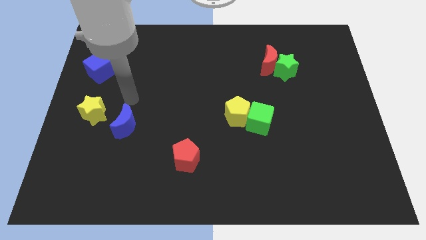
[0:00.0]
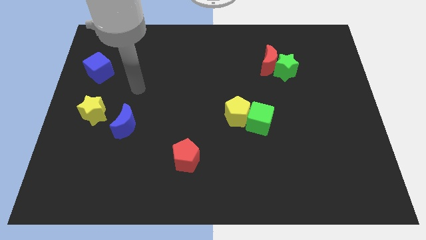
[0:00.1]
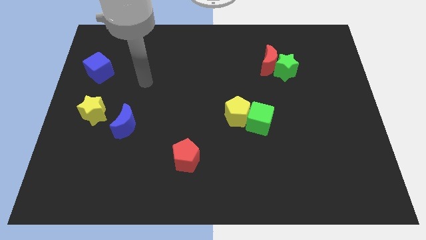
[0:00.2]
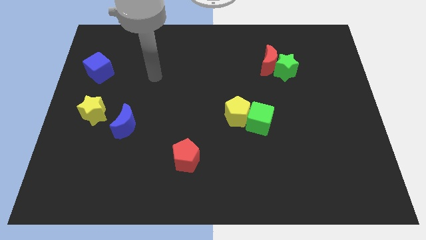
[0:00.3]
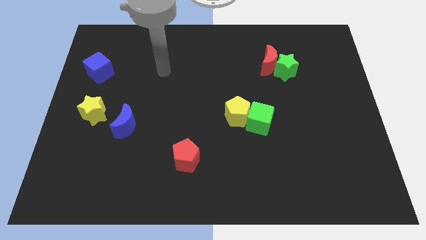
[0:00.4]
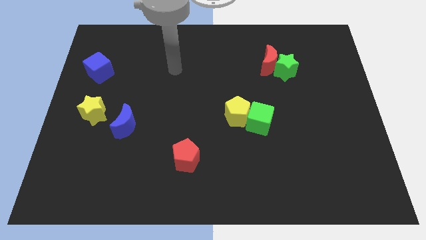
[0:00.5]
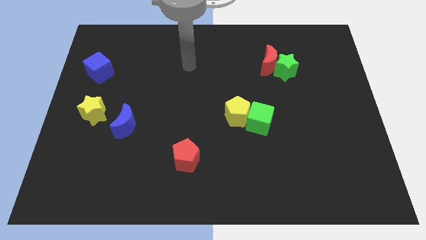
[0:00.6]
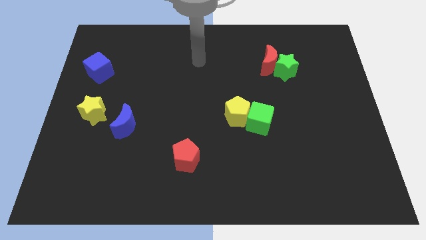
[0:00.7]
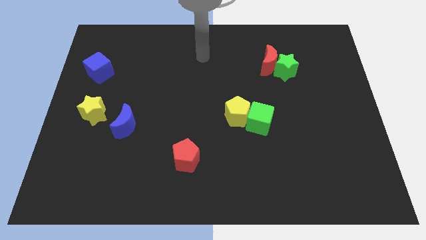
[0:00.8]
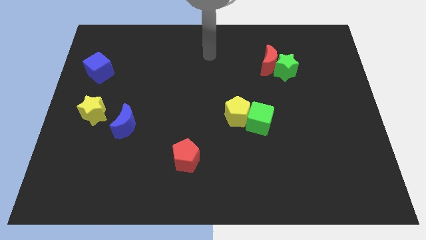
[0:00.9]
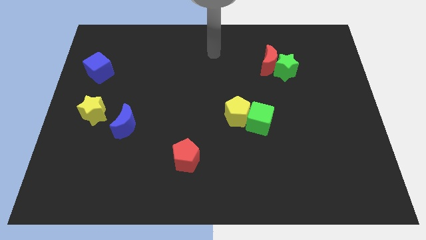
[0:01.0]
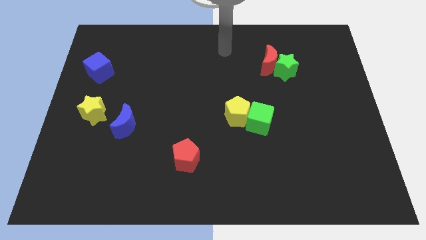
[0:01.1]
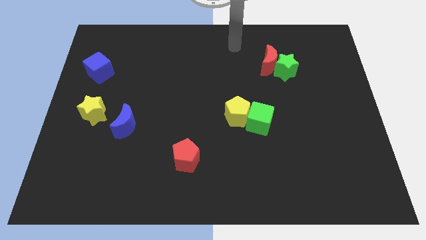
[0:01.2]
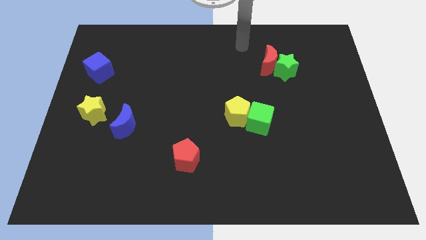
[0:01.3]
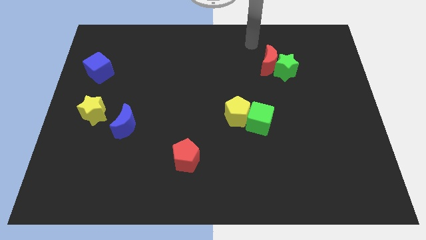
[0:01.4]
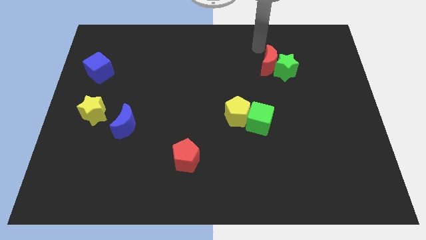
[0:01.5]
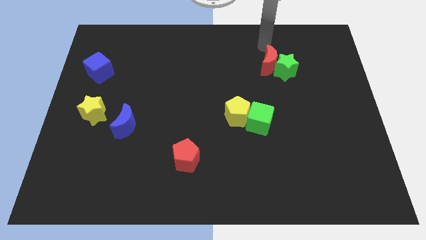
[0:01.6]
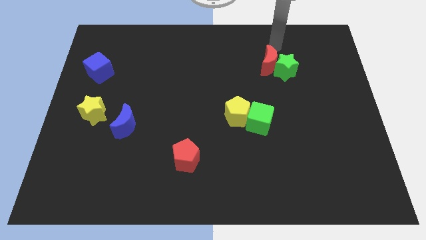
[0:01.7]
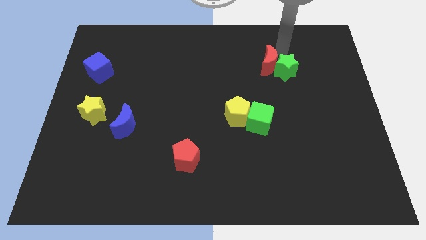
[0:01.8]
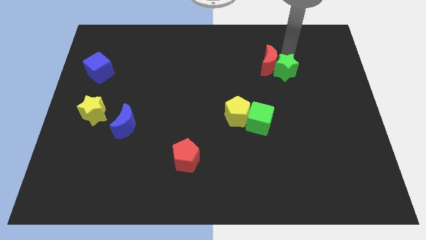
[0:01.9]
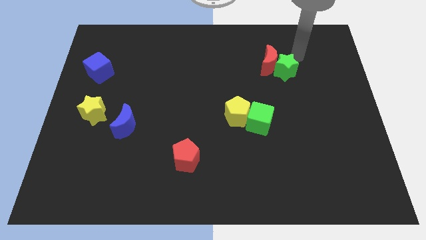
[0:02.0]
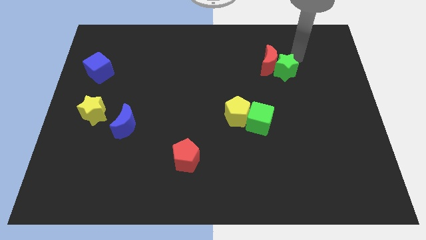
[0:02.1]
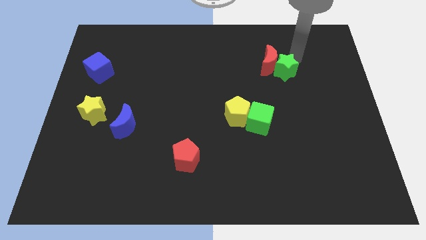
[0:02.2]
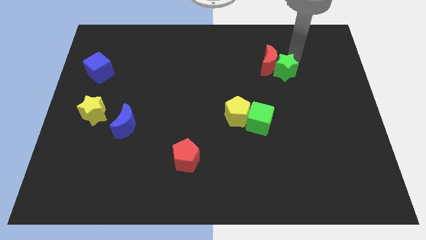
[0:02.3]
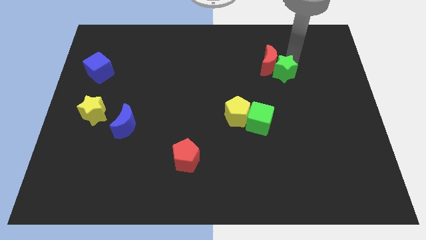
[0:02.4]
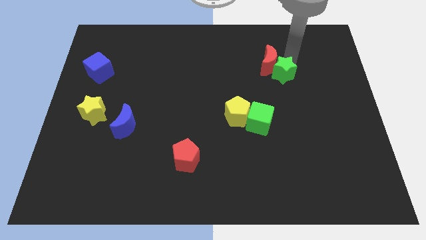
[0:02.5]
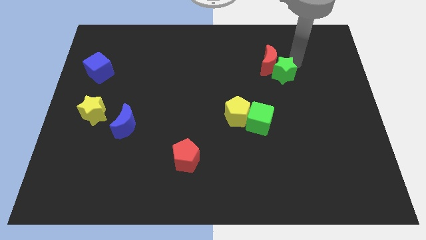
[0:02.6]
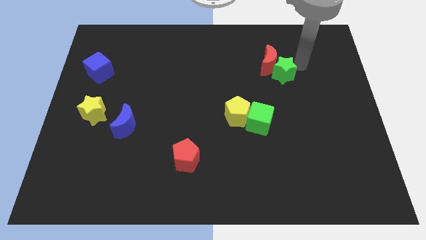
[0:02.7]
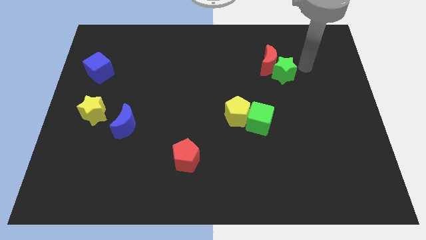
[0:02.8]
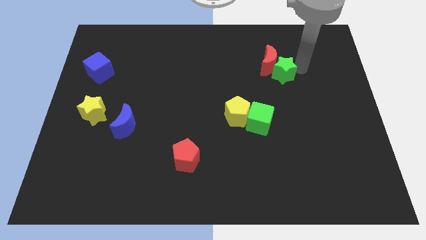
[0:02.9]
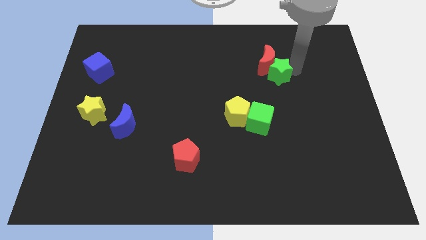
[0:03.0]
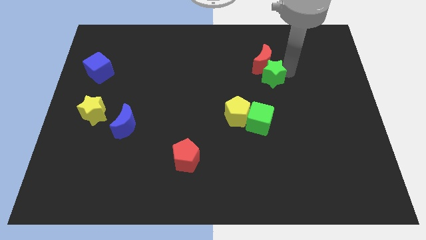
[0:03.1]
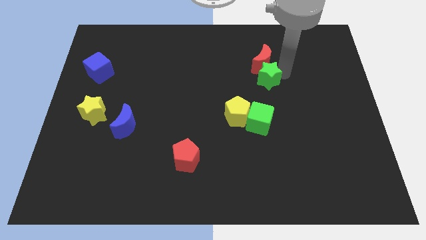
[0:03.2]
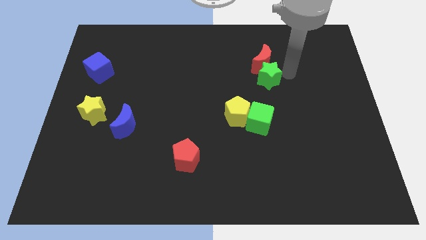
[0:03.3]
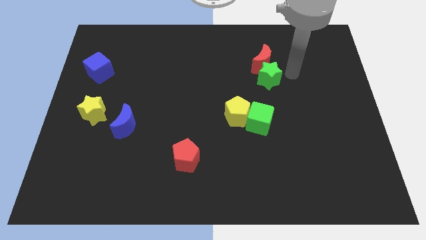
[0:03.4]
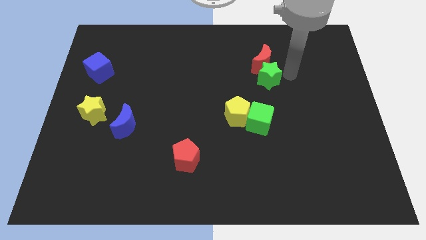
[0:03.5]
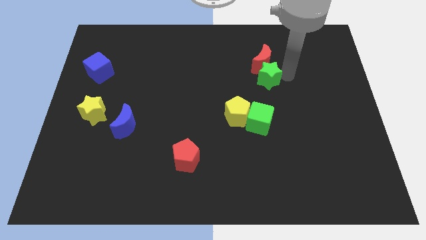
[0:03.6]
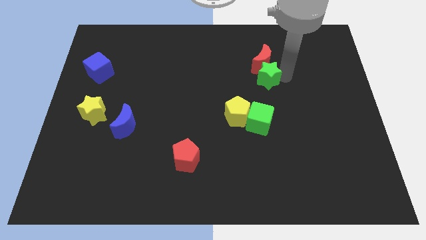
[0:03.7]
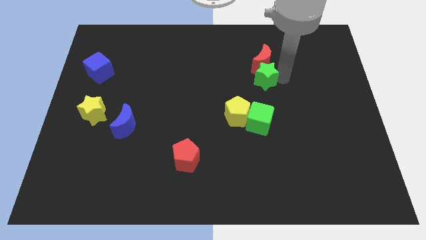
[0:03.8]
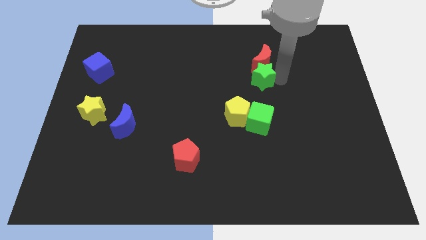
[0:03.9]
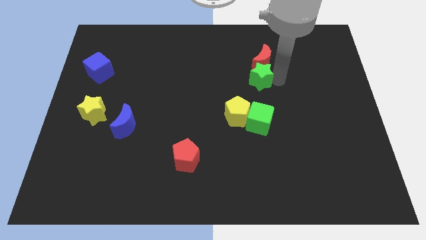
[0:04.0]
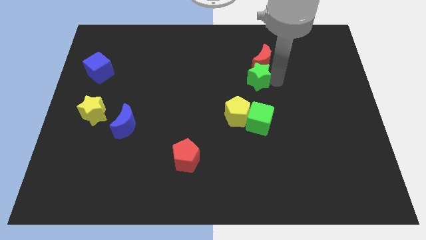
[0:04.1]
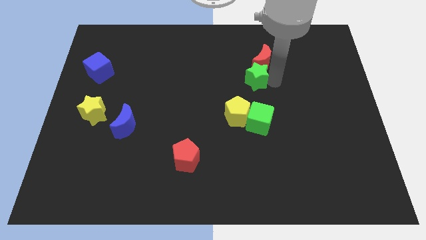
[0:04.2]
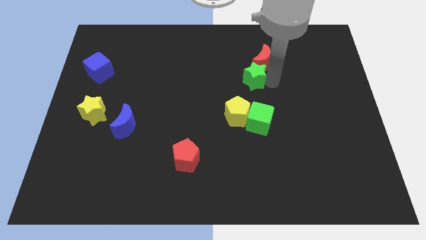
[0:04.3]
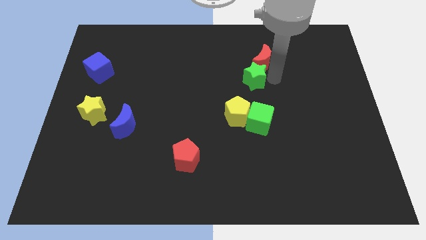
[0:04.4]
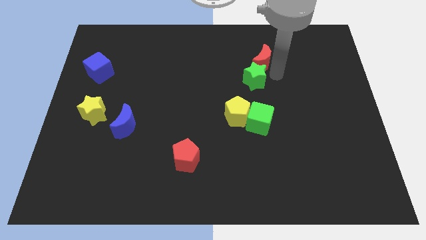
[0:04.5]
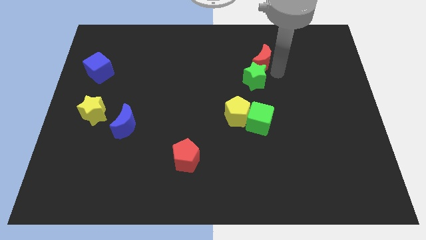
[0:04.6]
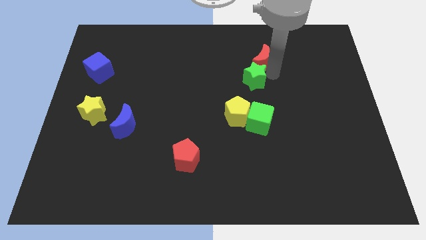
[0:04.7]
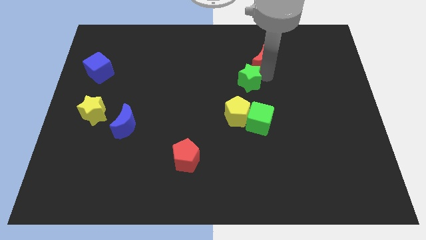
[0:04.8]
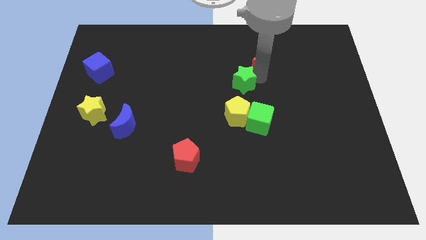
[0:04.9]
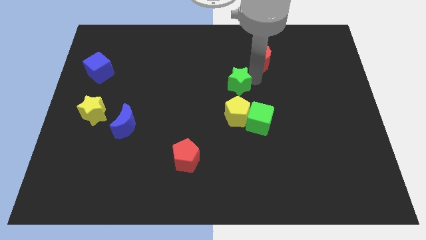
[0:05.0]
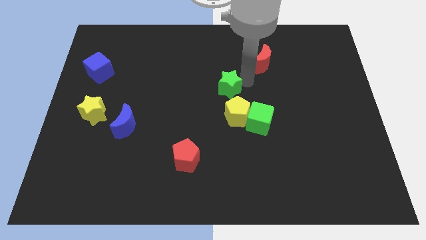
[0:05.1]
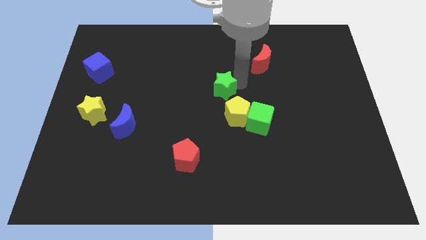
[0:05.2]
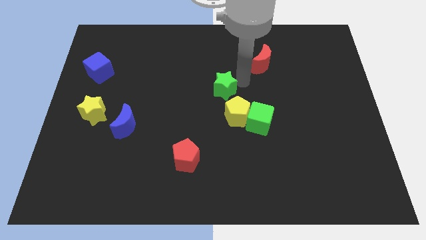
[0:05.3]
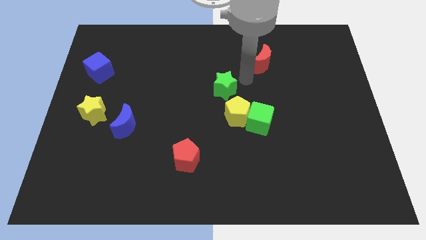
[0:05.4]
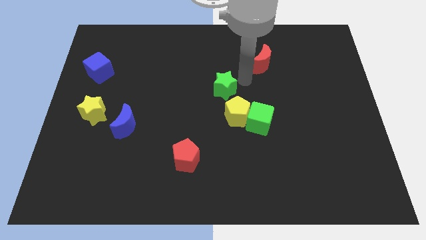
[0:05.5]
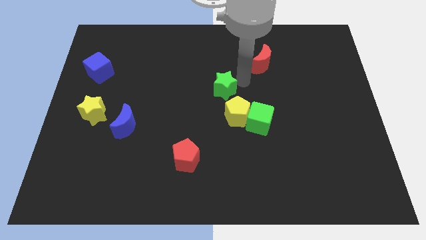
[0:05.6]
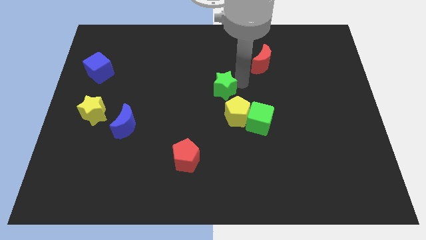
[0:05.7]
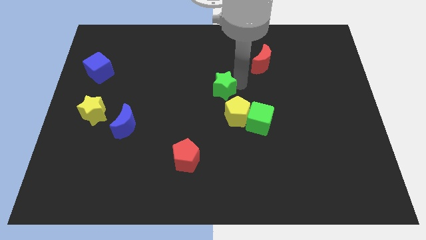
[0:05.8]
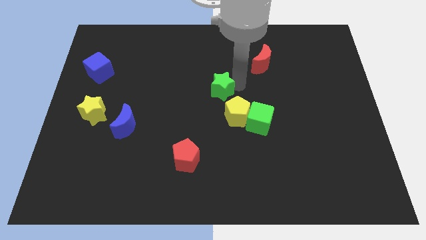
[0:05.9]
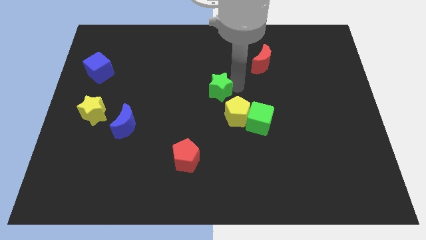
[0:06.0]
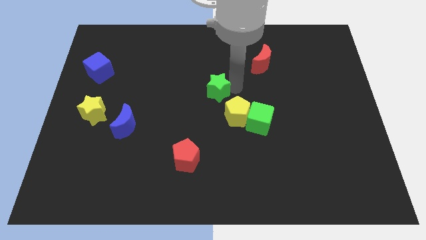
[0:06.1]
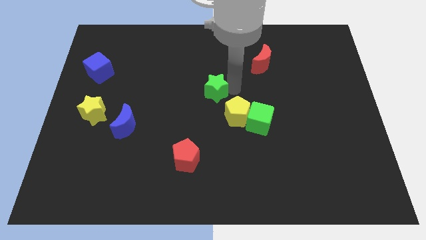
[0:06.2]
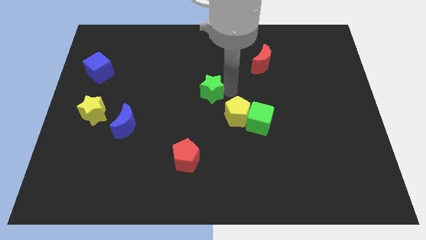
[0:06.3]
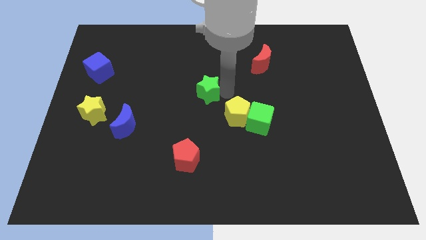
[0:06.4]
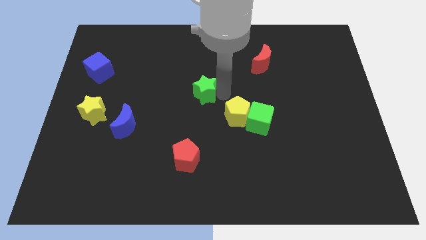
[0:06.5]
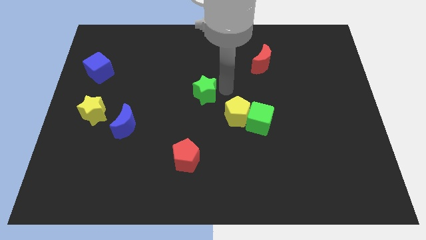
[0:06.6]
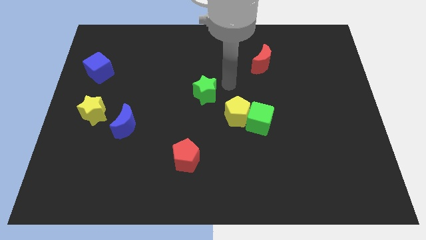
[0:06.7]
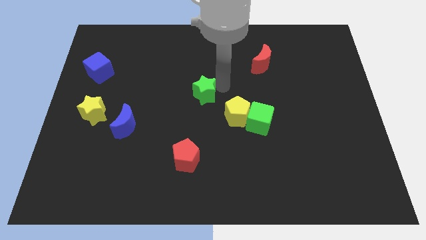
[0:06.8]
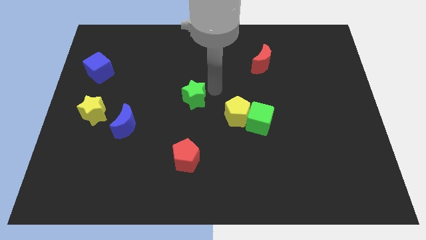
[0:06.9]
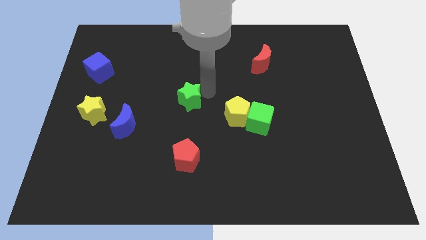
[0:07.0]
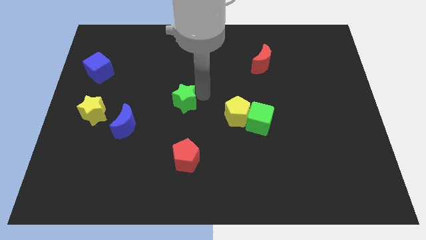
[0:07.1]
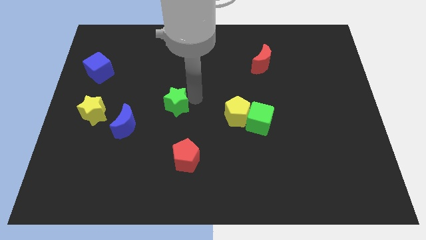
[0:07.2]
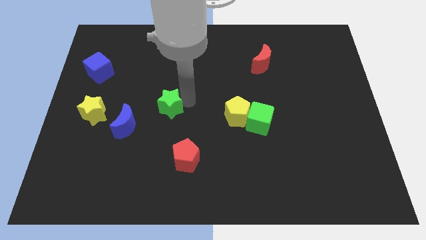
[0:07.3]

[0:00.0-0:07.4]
slide the green star to the top right side of the blue moon
